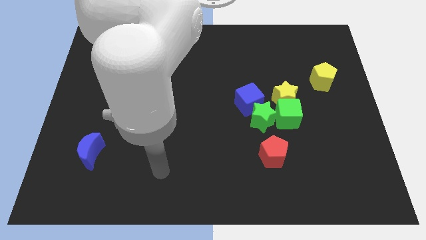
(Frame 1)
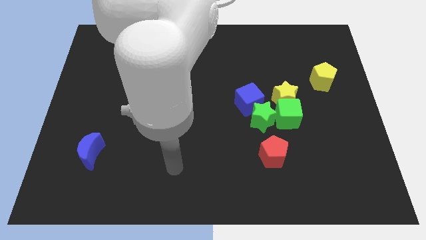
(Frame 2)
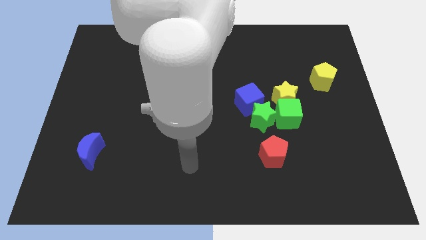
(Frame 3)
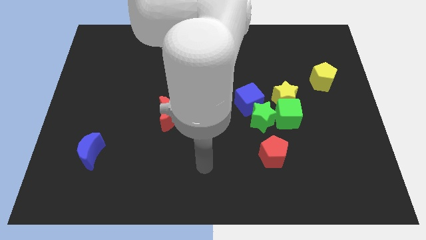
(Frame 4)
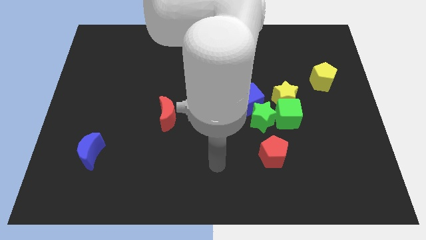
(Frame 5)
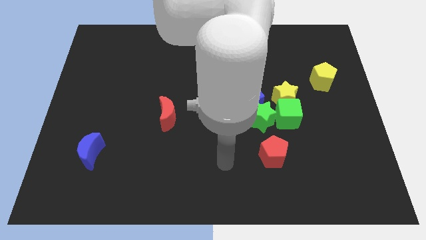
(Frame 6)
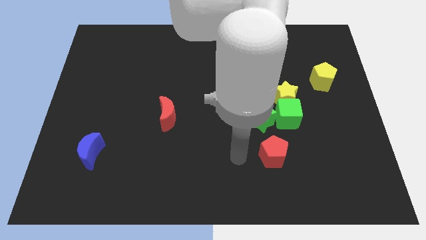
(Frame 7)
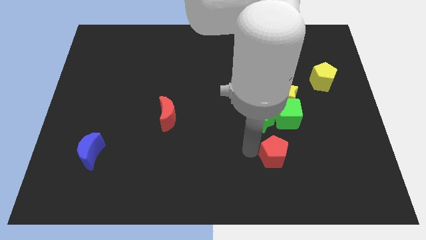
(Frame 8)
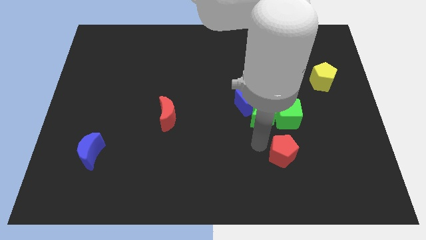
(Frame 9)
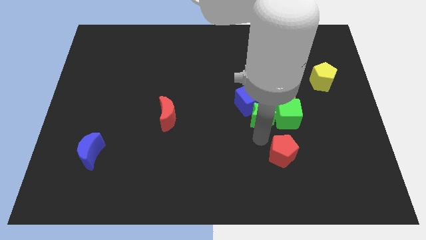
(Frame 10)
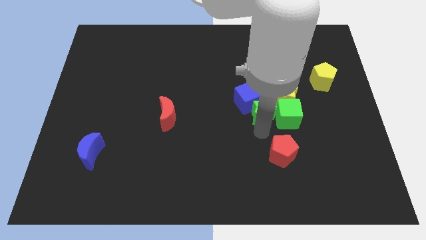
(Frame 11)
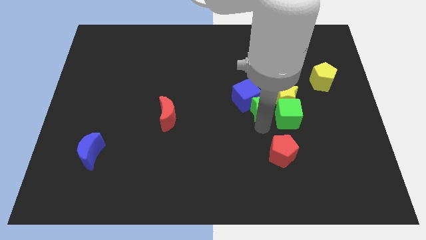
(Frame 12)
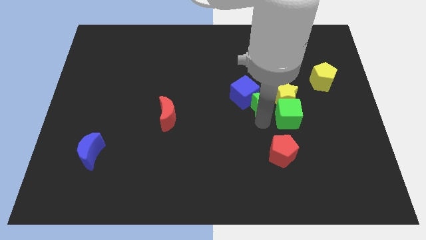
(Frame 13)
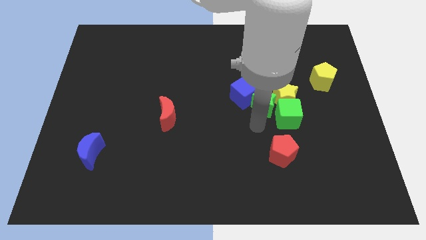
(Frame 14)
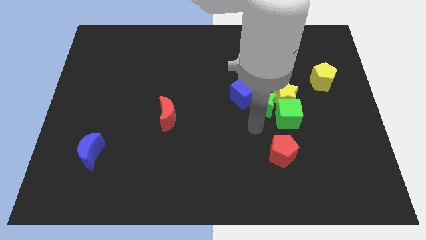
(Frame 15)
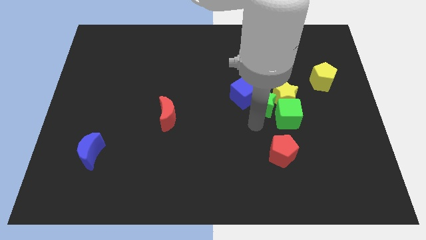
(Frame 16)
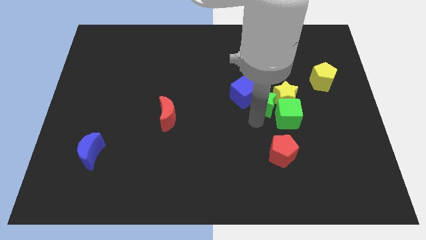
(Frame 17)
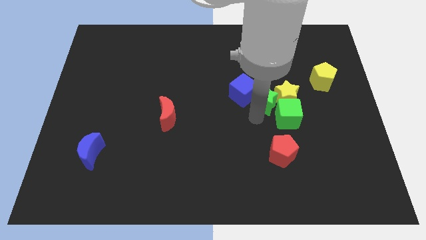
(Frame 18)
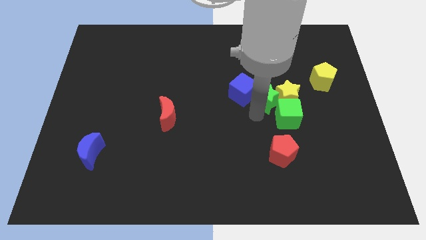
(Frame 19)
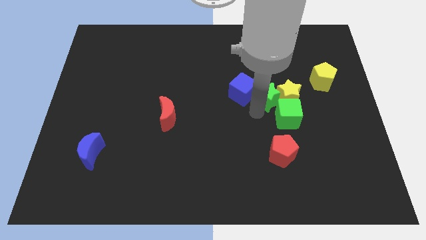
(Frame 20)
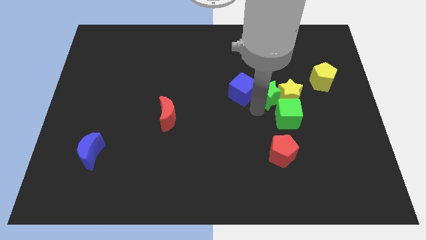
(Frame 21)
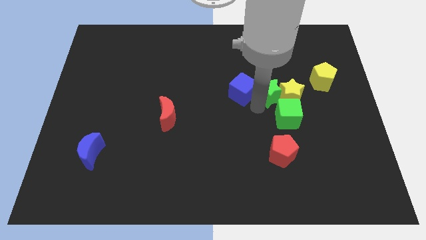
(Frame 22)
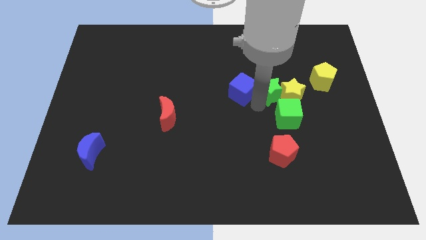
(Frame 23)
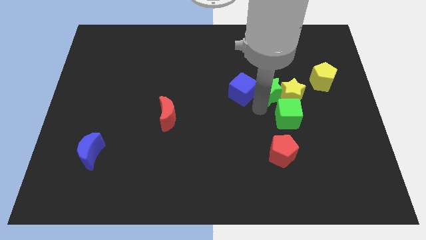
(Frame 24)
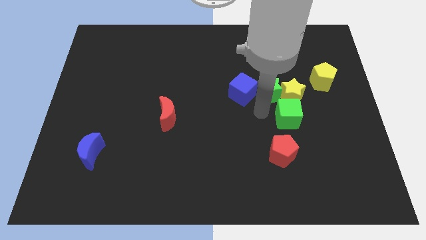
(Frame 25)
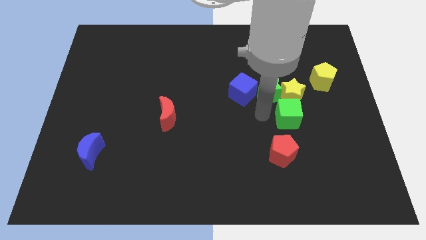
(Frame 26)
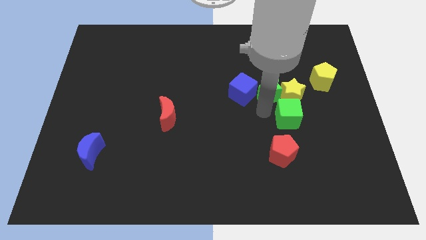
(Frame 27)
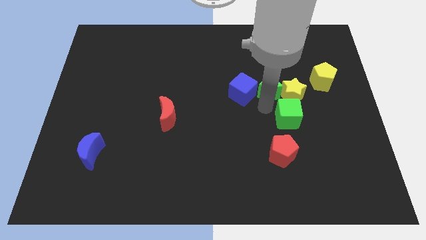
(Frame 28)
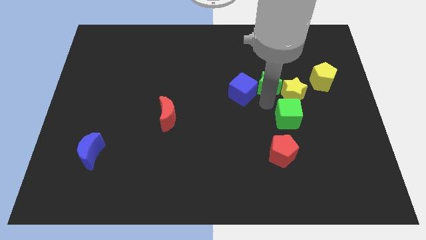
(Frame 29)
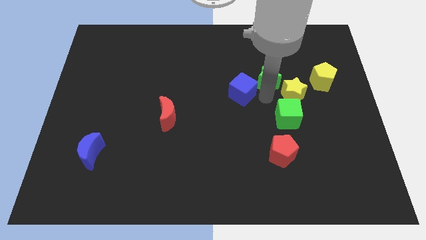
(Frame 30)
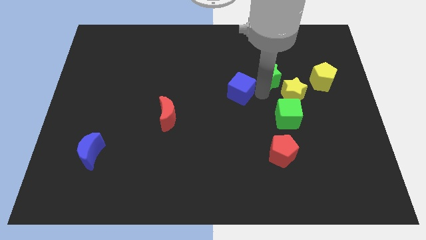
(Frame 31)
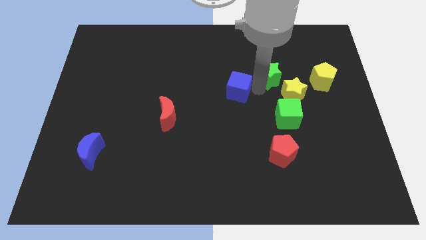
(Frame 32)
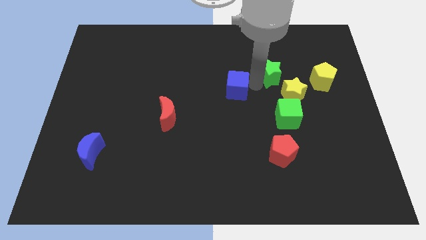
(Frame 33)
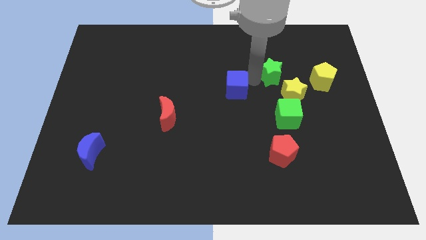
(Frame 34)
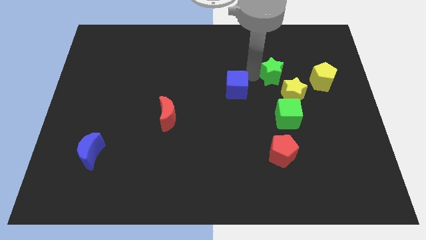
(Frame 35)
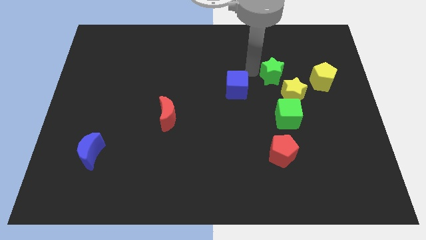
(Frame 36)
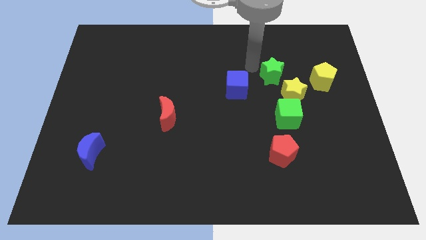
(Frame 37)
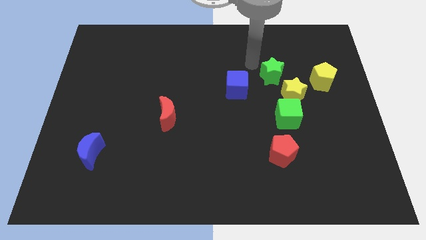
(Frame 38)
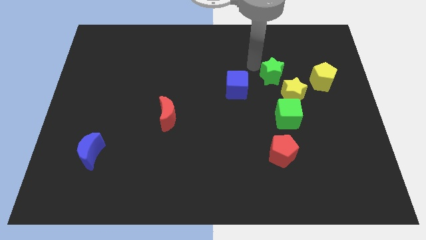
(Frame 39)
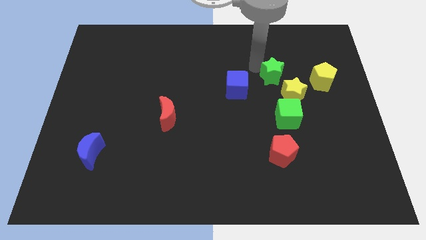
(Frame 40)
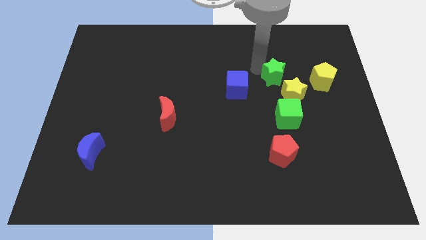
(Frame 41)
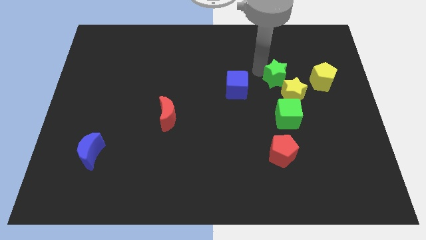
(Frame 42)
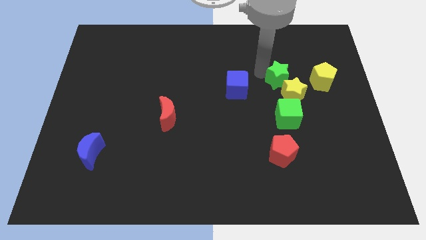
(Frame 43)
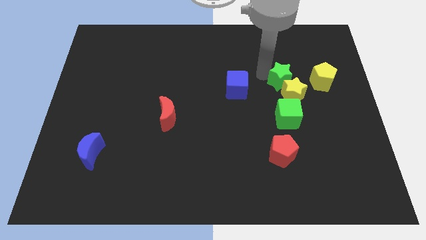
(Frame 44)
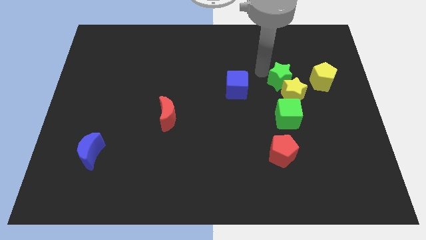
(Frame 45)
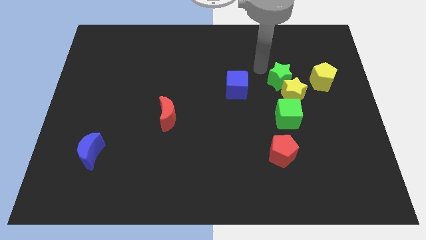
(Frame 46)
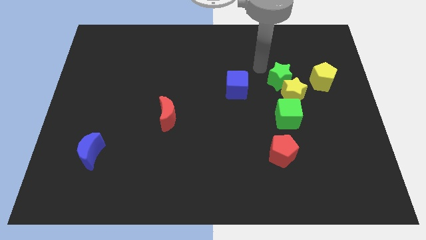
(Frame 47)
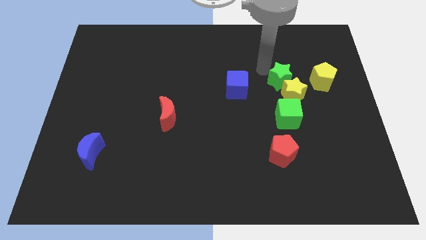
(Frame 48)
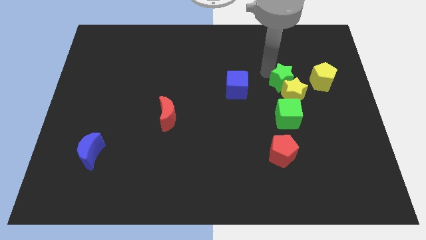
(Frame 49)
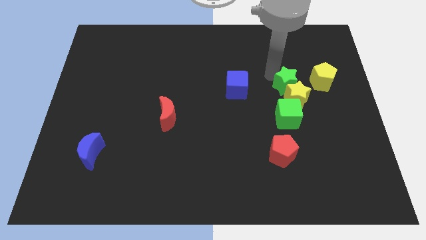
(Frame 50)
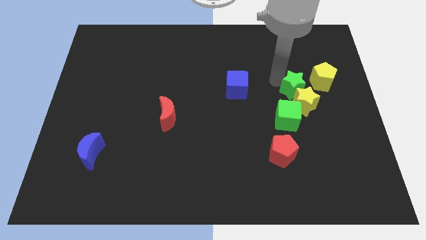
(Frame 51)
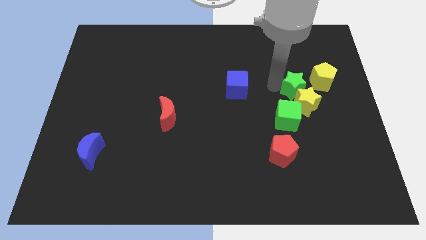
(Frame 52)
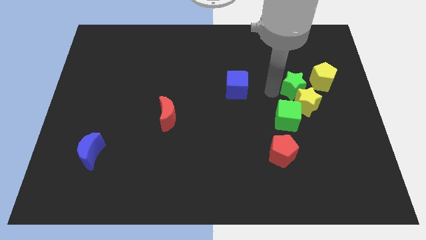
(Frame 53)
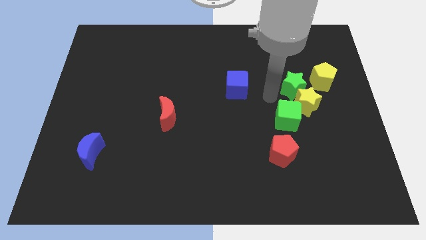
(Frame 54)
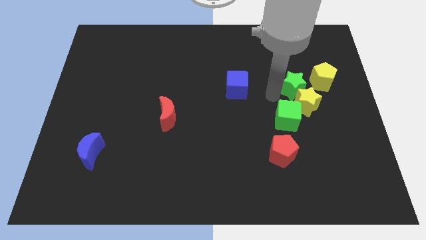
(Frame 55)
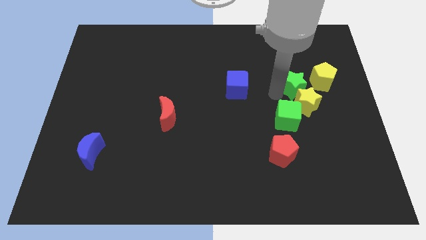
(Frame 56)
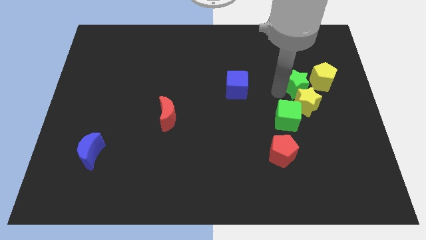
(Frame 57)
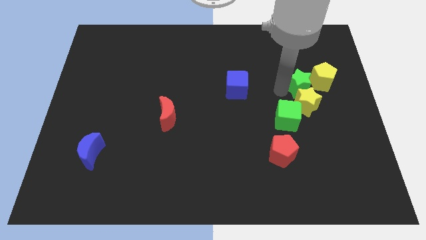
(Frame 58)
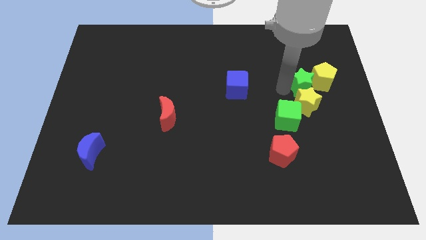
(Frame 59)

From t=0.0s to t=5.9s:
push the green star towards the yellow pentagon

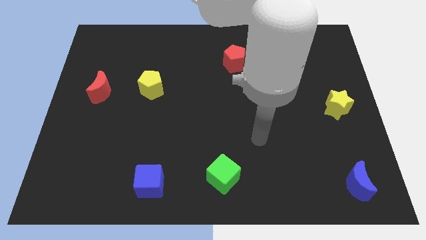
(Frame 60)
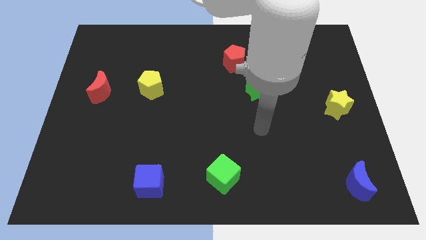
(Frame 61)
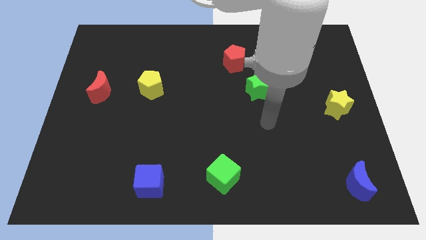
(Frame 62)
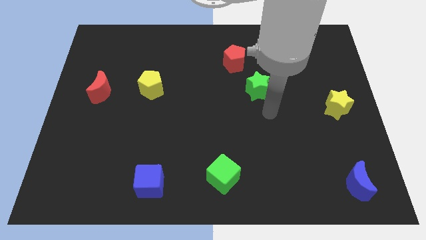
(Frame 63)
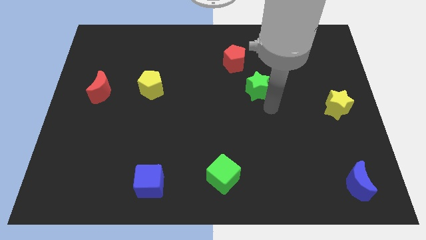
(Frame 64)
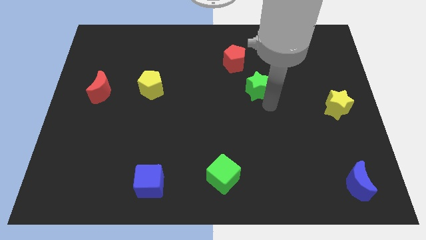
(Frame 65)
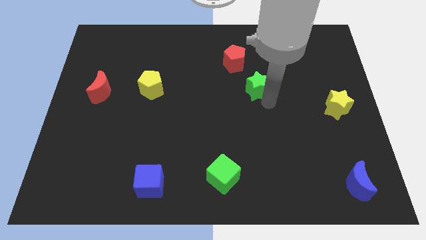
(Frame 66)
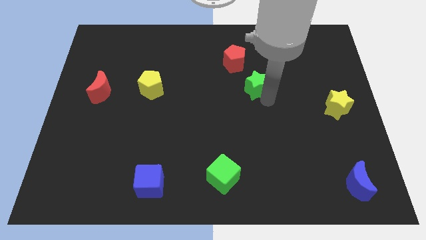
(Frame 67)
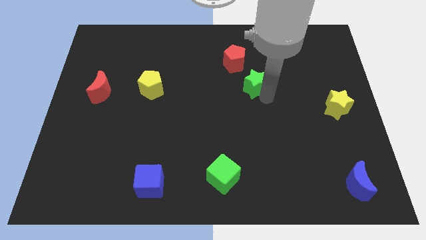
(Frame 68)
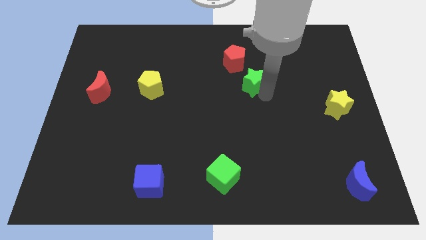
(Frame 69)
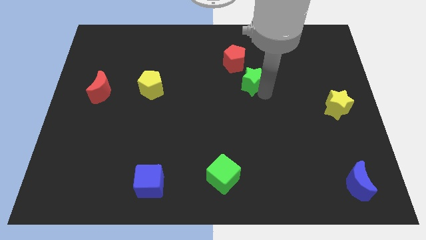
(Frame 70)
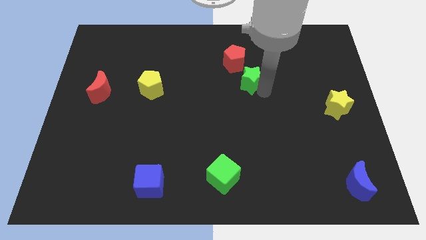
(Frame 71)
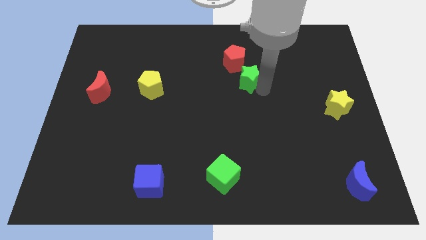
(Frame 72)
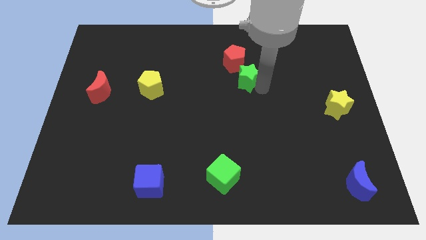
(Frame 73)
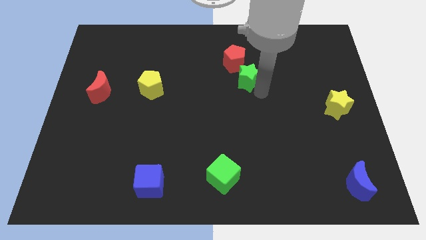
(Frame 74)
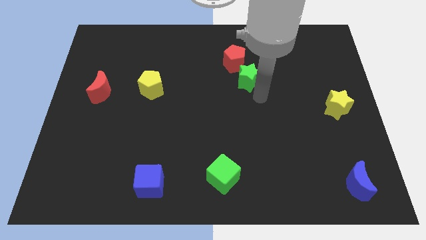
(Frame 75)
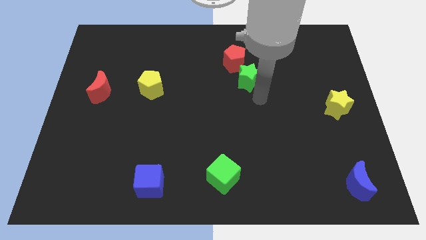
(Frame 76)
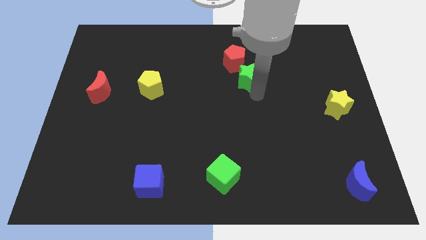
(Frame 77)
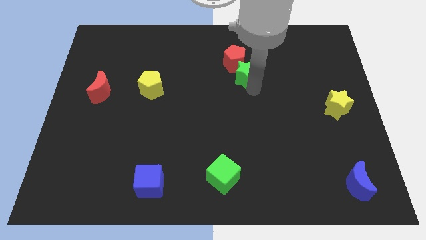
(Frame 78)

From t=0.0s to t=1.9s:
move the green star towards the red pentagon

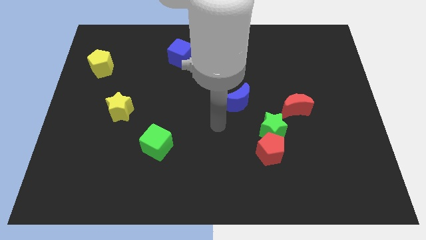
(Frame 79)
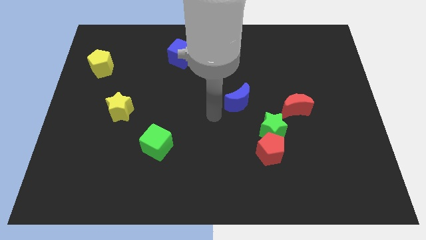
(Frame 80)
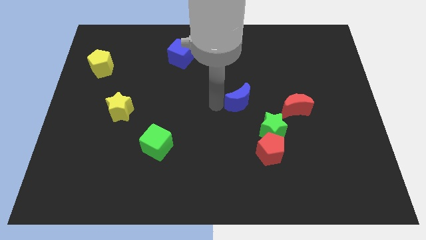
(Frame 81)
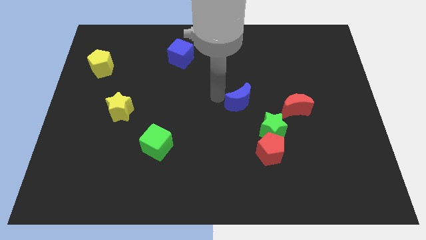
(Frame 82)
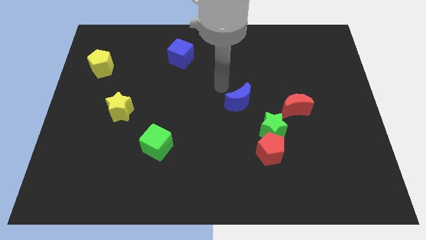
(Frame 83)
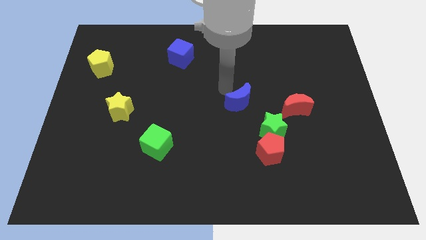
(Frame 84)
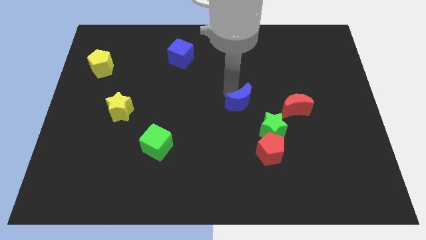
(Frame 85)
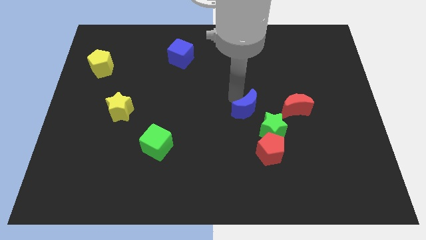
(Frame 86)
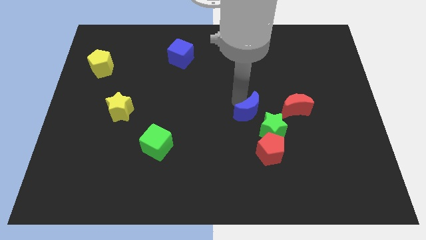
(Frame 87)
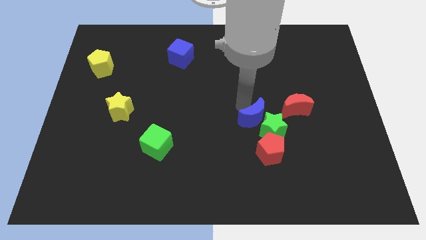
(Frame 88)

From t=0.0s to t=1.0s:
slide the blue moon towards the green star
